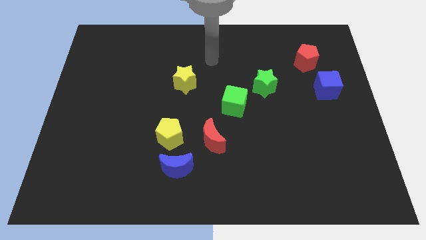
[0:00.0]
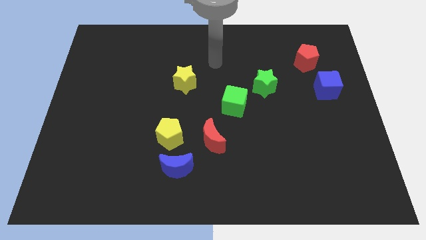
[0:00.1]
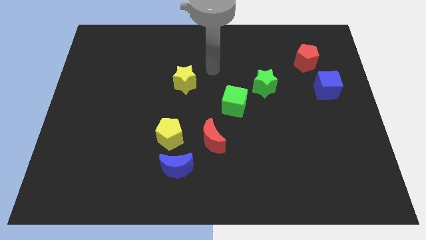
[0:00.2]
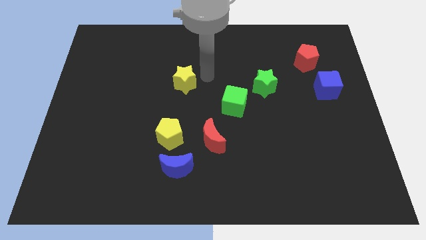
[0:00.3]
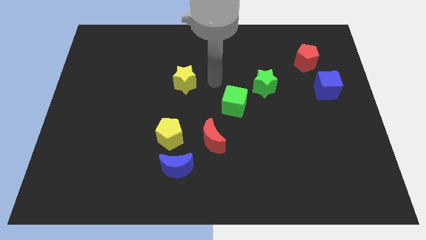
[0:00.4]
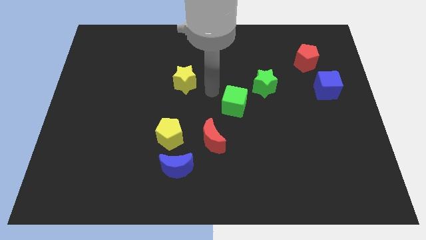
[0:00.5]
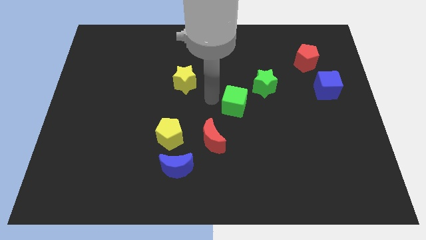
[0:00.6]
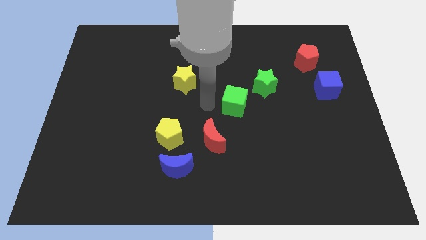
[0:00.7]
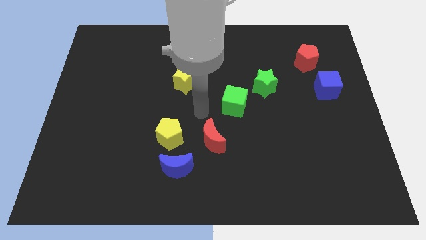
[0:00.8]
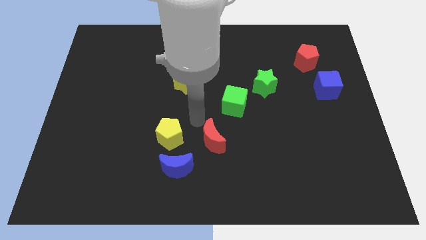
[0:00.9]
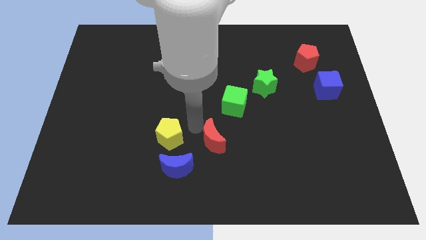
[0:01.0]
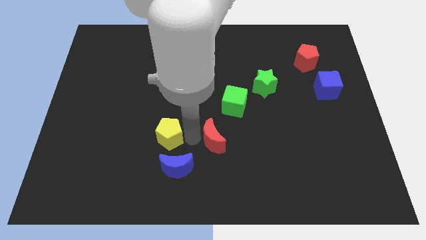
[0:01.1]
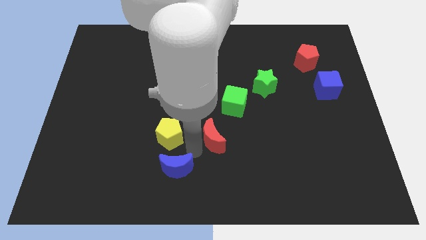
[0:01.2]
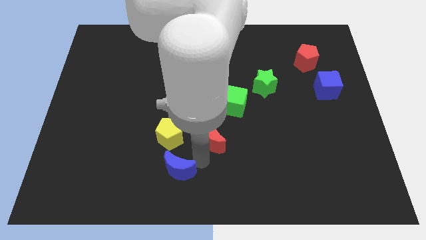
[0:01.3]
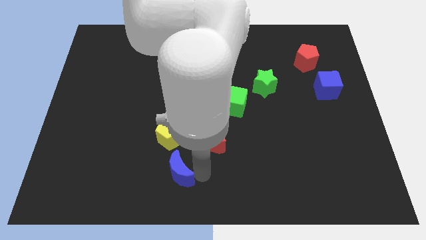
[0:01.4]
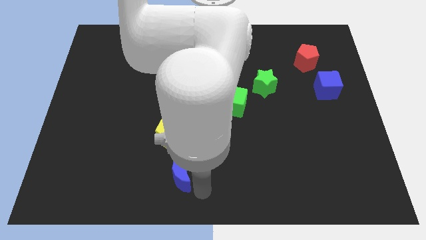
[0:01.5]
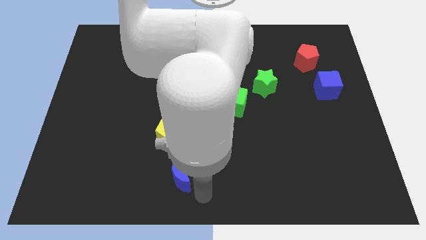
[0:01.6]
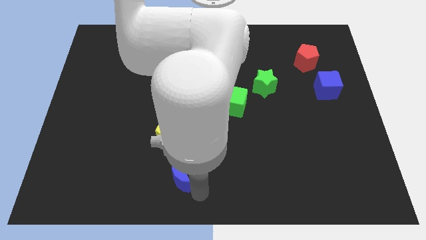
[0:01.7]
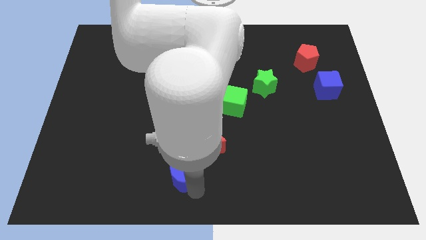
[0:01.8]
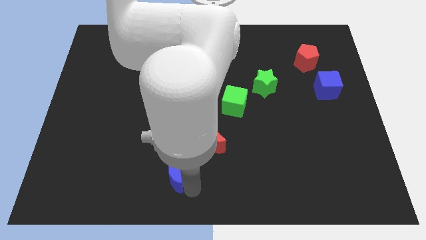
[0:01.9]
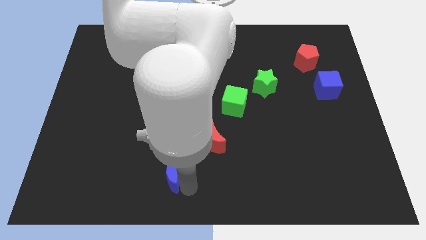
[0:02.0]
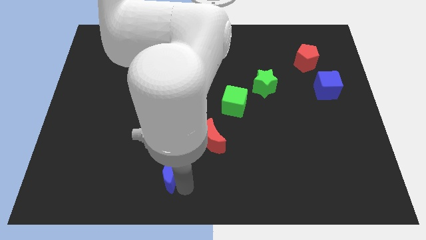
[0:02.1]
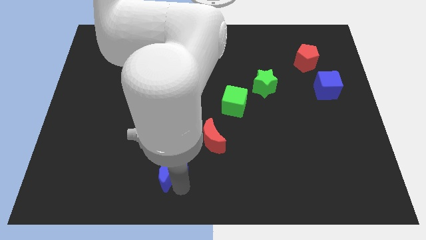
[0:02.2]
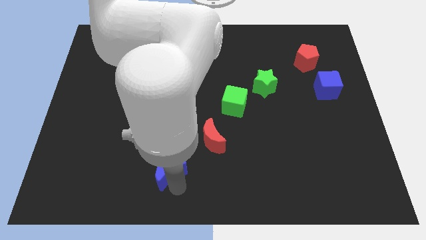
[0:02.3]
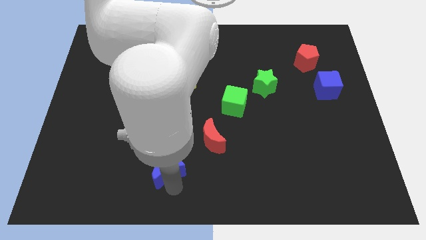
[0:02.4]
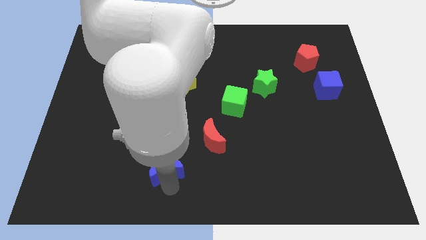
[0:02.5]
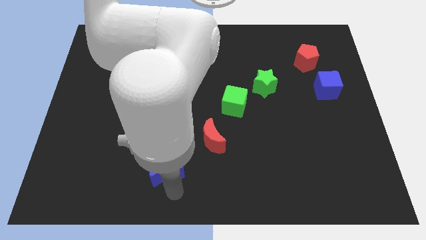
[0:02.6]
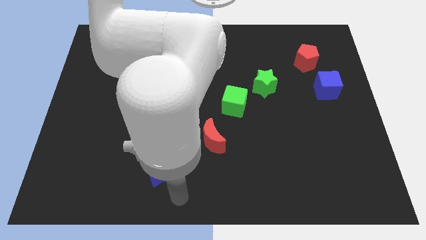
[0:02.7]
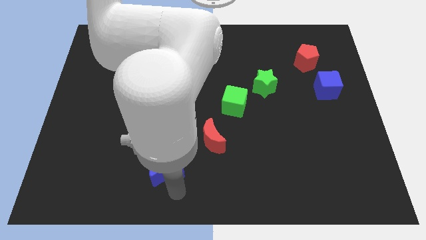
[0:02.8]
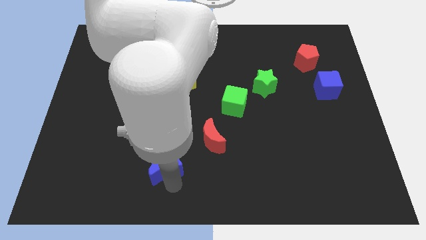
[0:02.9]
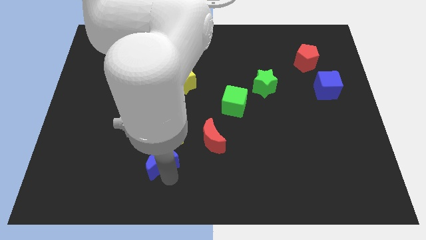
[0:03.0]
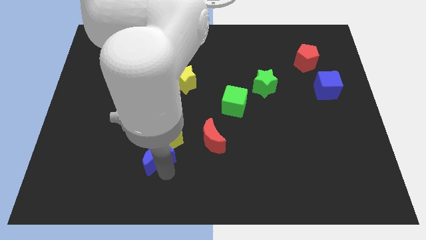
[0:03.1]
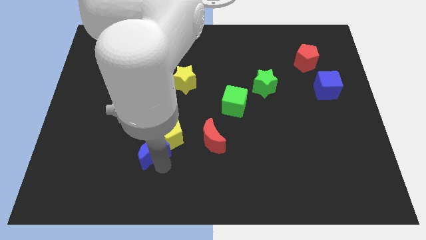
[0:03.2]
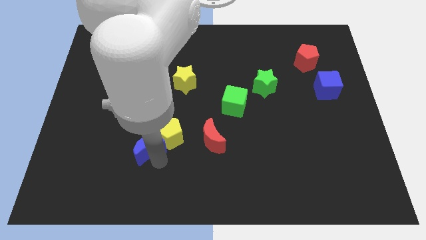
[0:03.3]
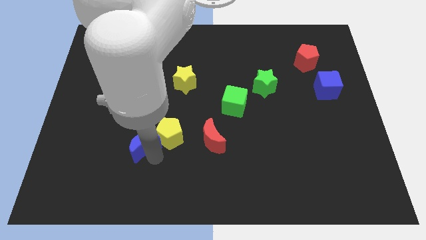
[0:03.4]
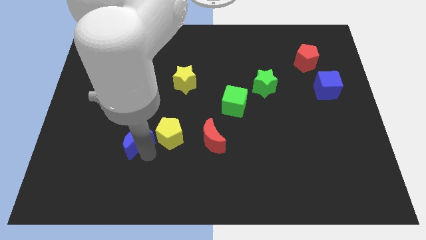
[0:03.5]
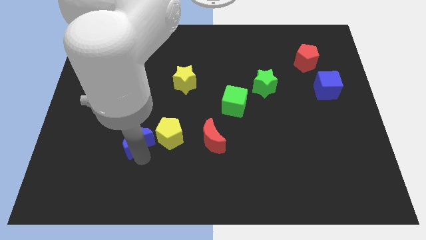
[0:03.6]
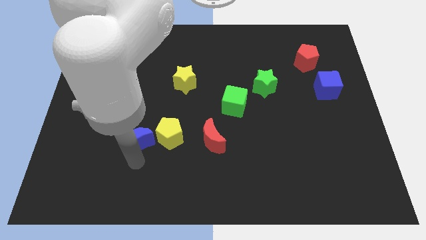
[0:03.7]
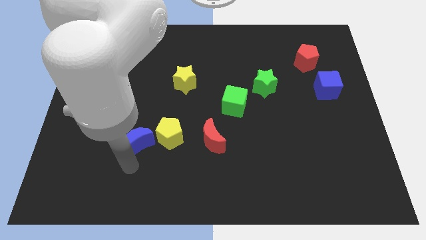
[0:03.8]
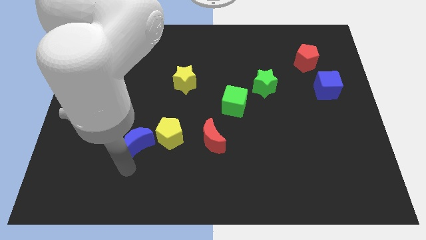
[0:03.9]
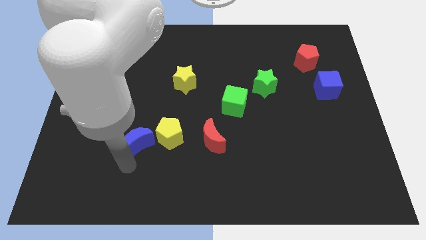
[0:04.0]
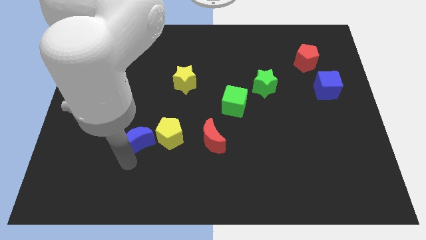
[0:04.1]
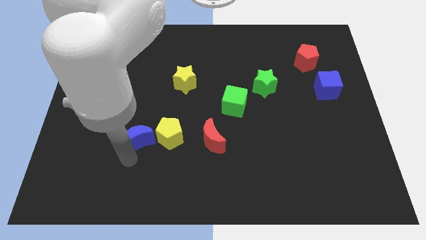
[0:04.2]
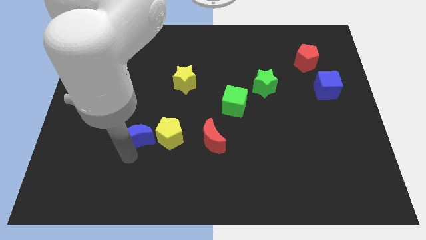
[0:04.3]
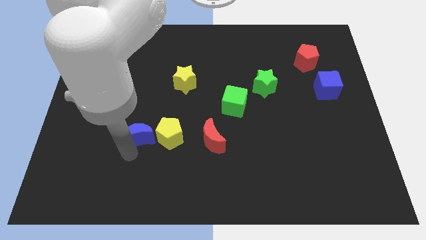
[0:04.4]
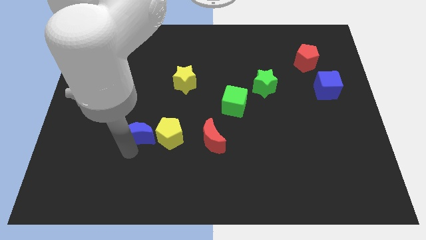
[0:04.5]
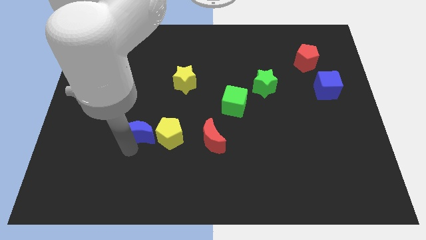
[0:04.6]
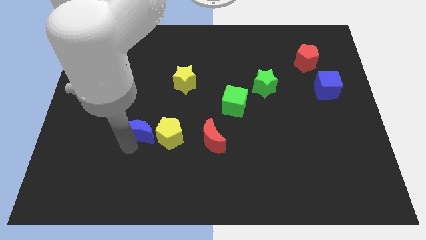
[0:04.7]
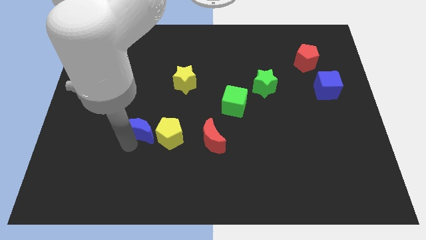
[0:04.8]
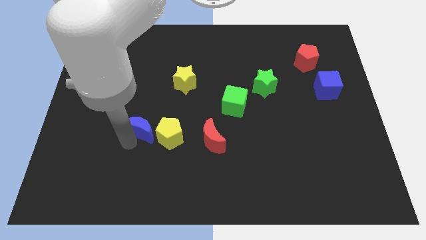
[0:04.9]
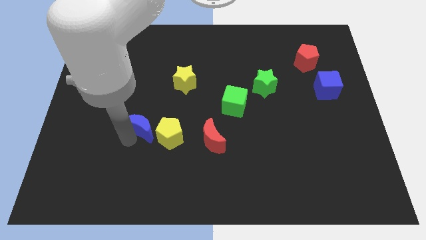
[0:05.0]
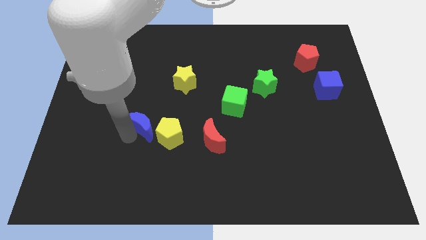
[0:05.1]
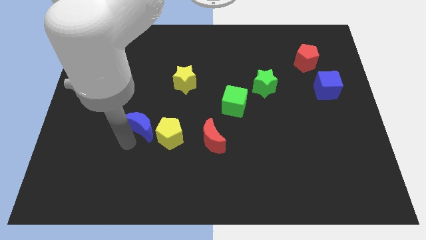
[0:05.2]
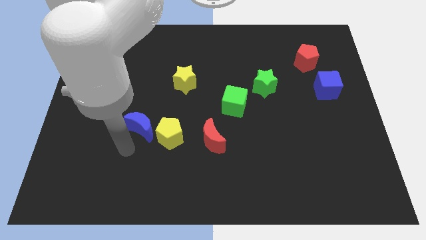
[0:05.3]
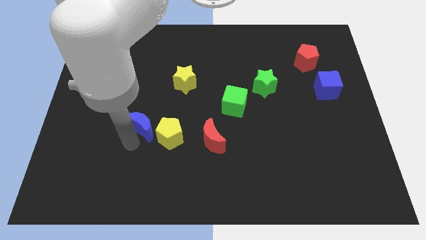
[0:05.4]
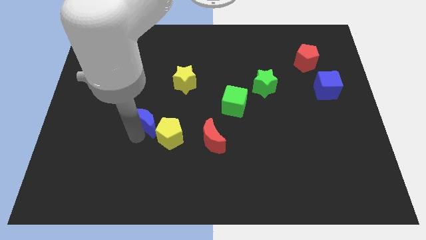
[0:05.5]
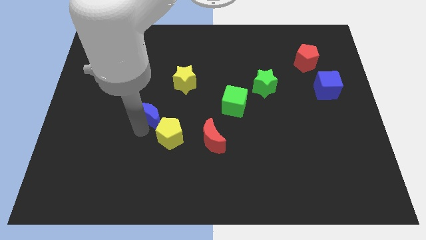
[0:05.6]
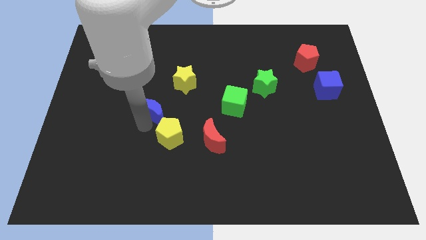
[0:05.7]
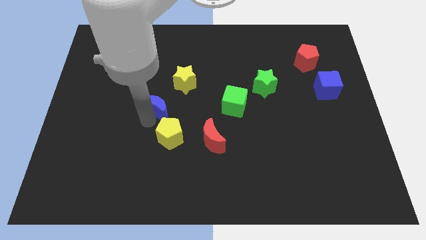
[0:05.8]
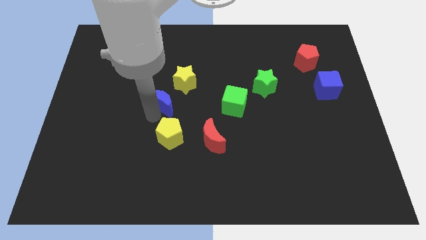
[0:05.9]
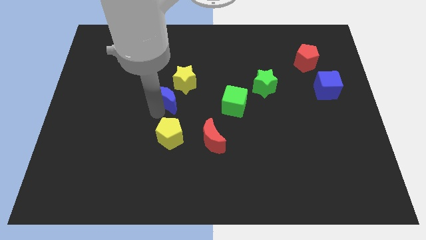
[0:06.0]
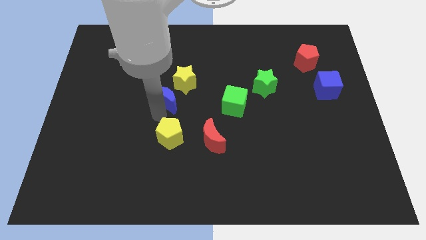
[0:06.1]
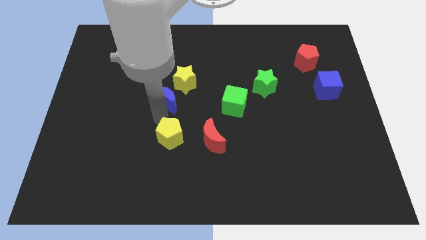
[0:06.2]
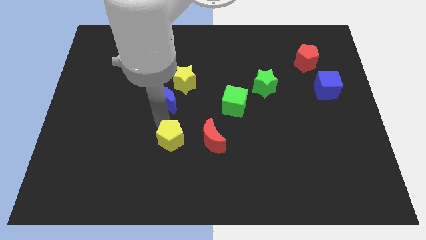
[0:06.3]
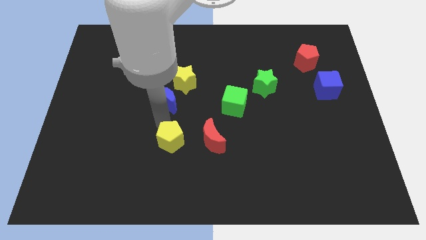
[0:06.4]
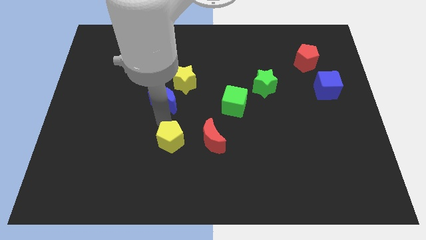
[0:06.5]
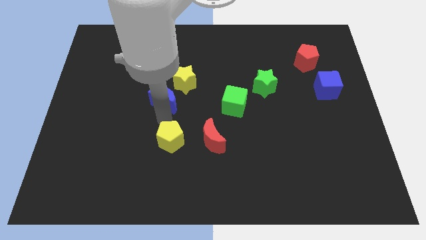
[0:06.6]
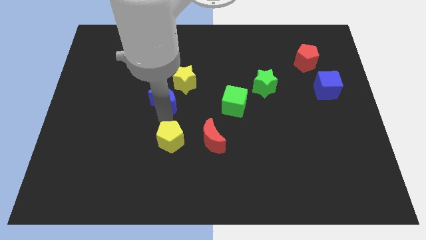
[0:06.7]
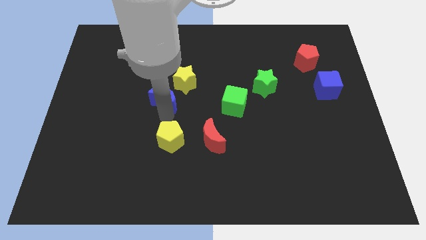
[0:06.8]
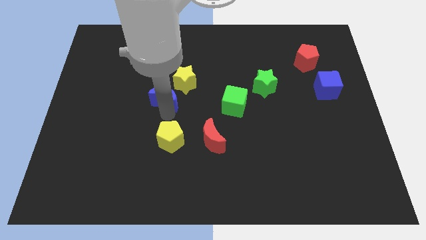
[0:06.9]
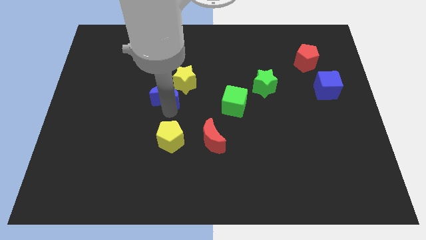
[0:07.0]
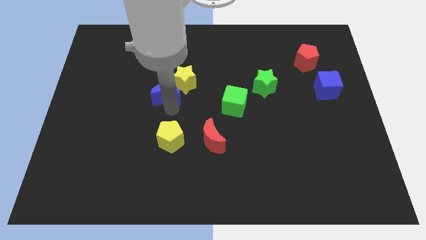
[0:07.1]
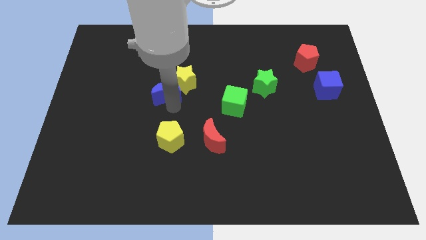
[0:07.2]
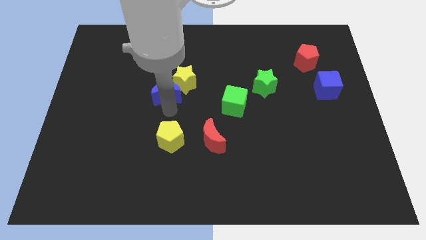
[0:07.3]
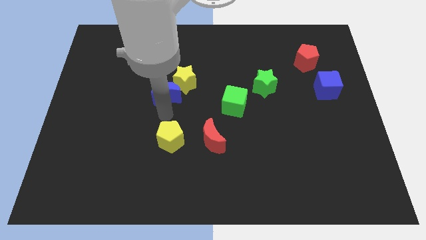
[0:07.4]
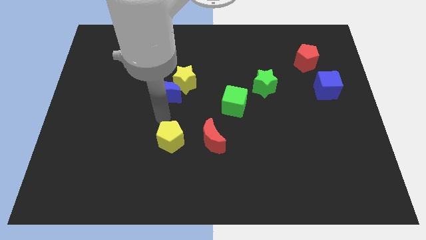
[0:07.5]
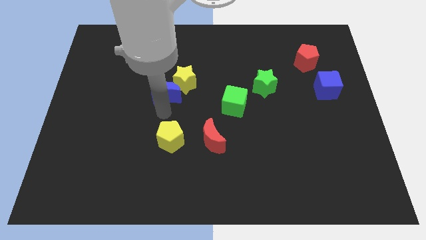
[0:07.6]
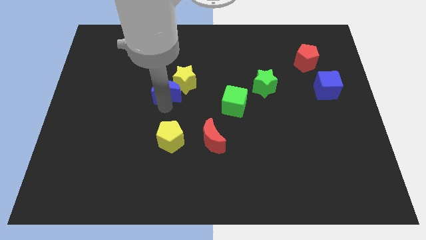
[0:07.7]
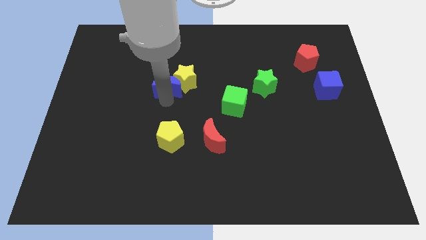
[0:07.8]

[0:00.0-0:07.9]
slide the blue moon up
